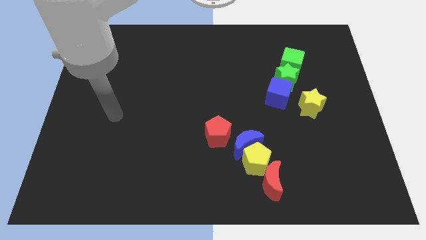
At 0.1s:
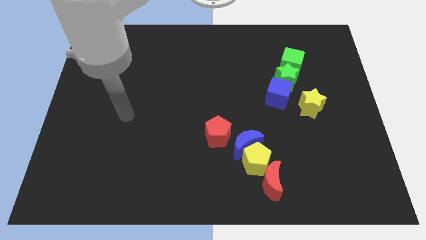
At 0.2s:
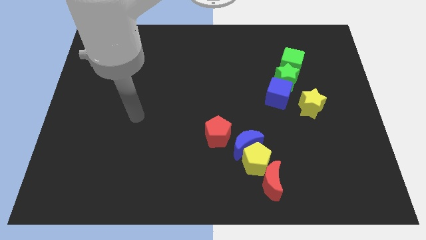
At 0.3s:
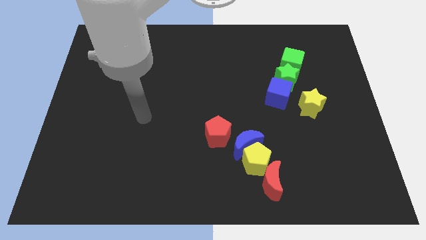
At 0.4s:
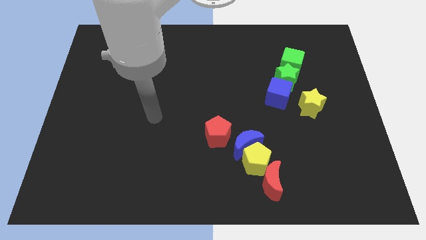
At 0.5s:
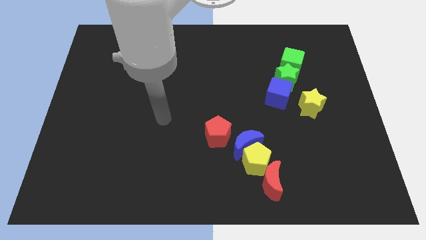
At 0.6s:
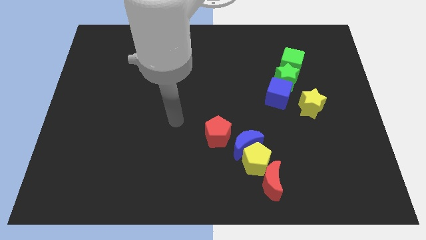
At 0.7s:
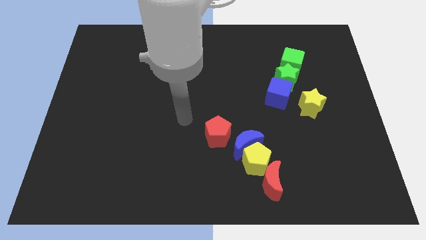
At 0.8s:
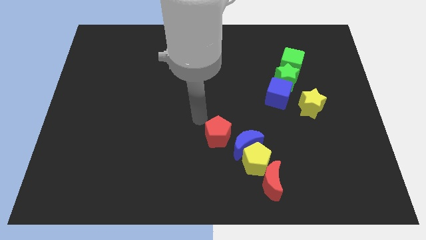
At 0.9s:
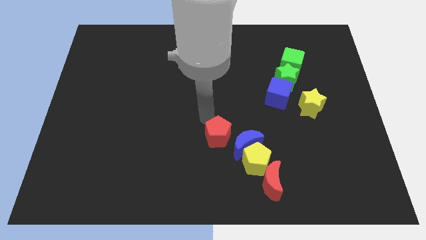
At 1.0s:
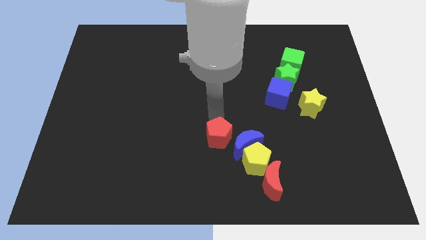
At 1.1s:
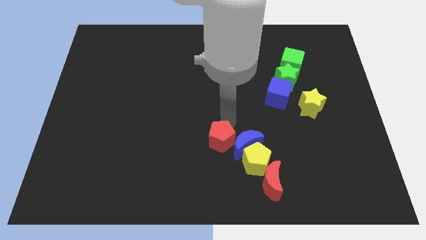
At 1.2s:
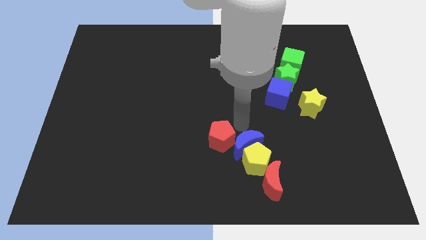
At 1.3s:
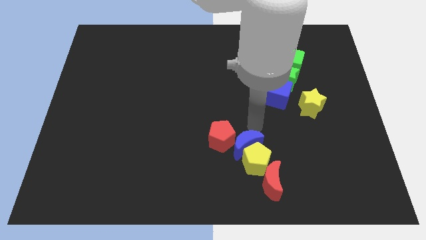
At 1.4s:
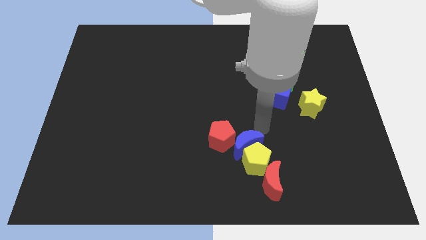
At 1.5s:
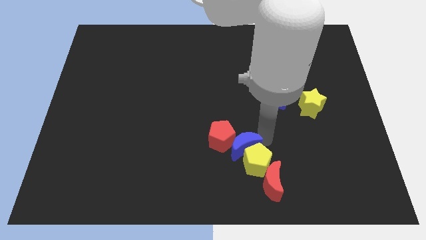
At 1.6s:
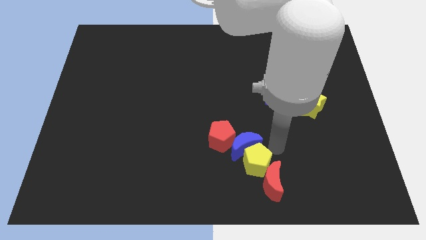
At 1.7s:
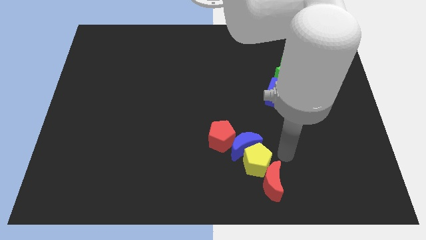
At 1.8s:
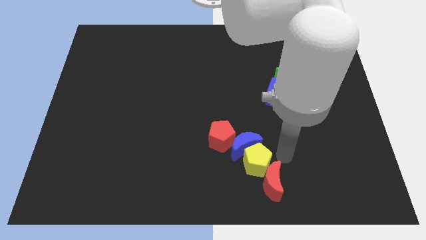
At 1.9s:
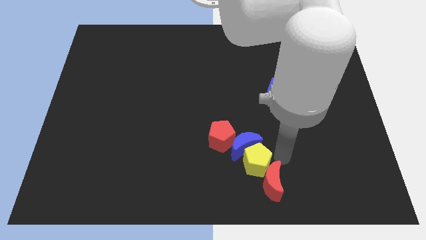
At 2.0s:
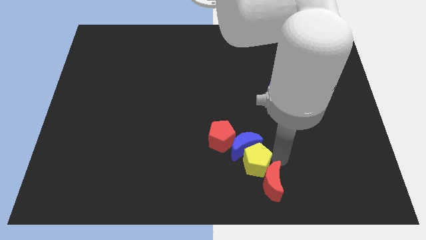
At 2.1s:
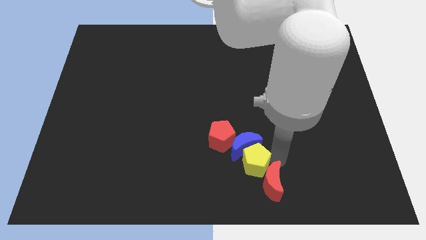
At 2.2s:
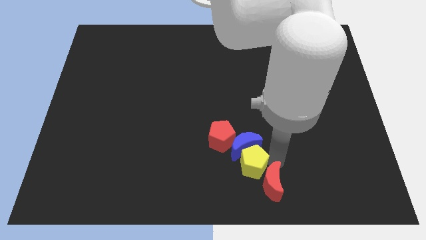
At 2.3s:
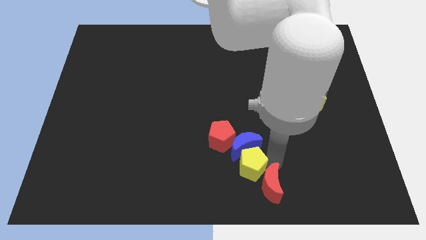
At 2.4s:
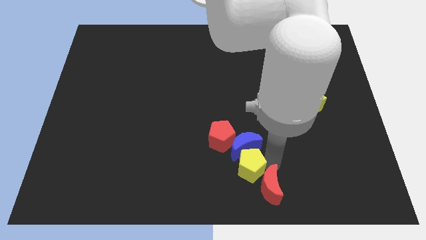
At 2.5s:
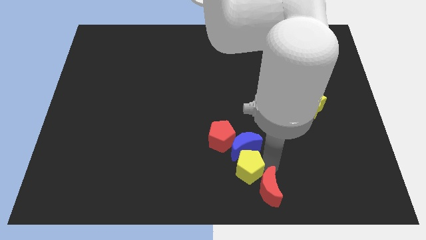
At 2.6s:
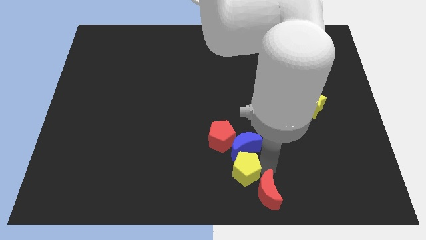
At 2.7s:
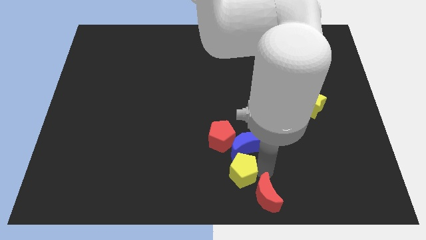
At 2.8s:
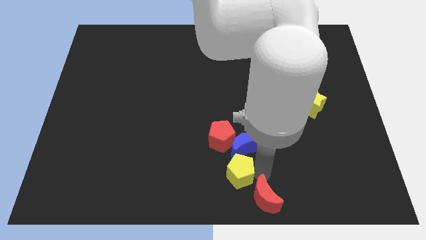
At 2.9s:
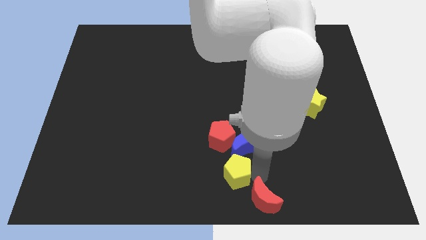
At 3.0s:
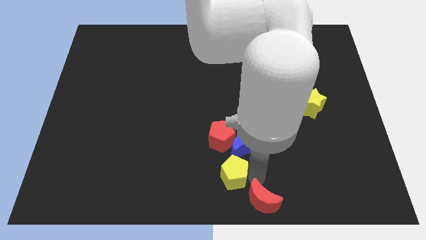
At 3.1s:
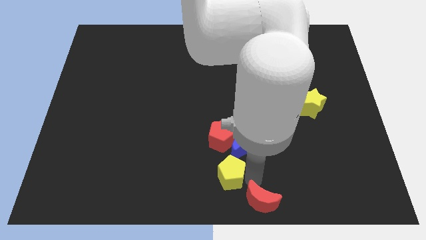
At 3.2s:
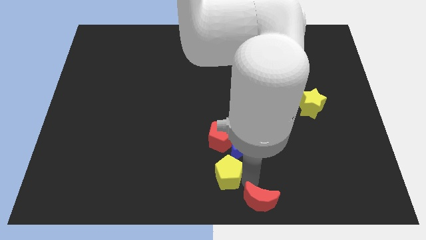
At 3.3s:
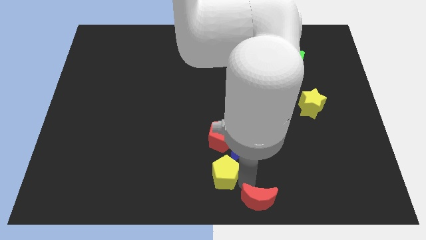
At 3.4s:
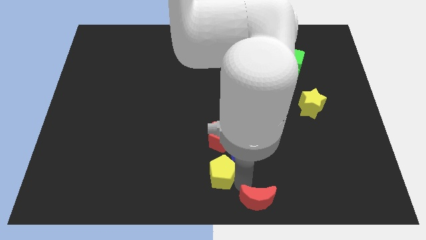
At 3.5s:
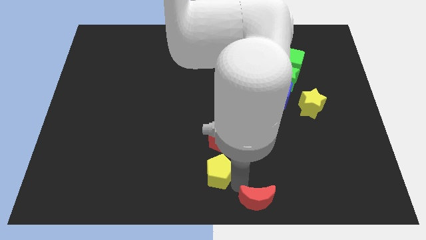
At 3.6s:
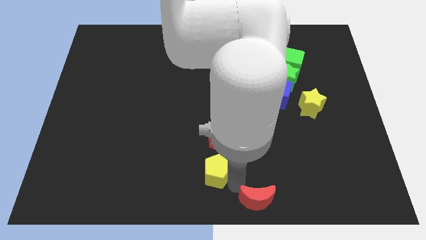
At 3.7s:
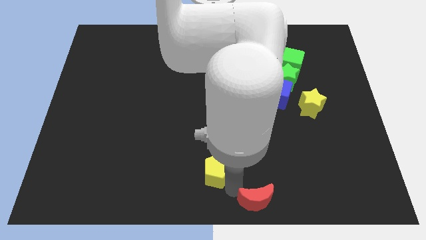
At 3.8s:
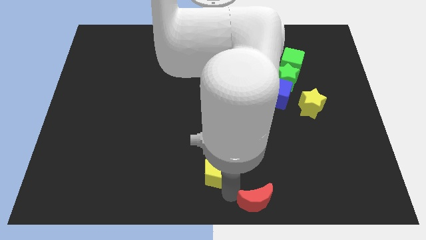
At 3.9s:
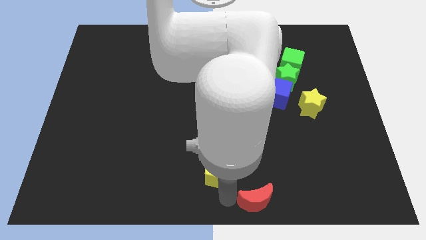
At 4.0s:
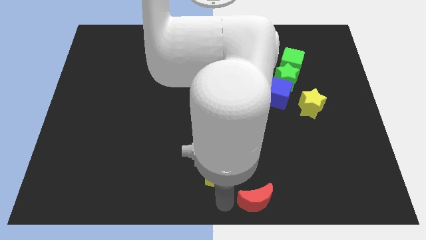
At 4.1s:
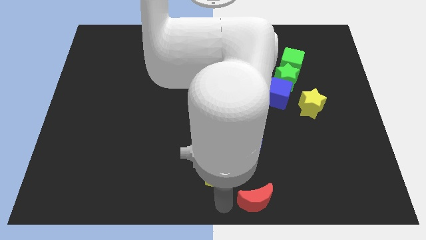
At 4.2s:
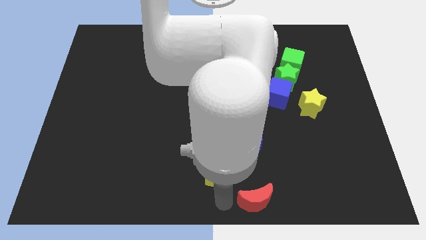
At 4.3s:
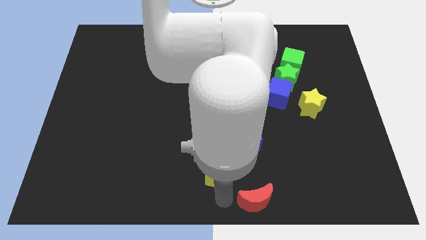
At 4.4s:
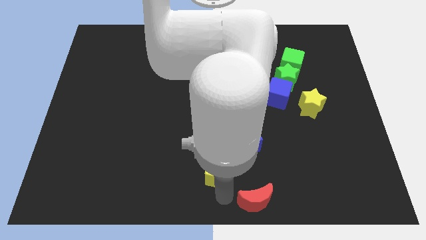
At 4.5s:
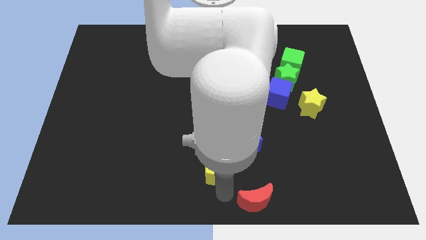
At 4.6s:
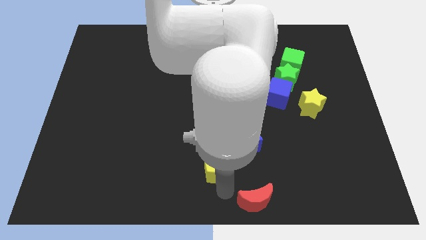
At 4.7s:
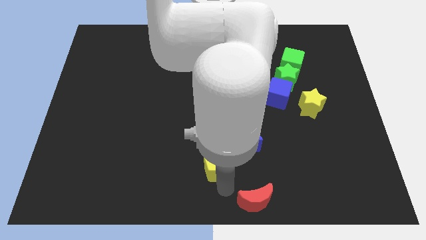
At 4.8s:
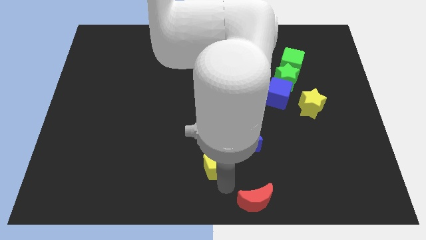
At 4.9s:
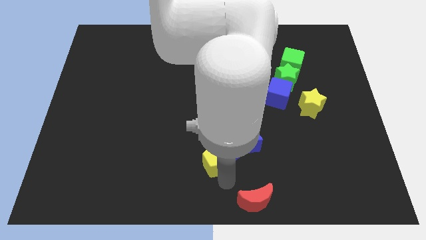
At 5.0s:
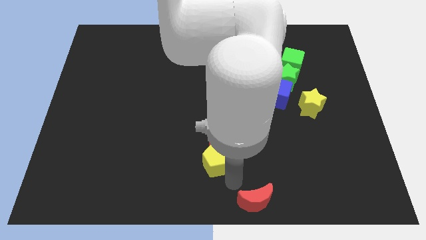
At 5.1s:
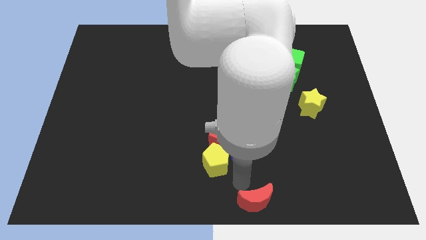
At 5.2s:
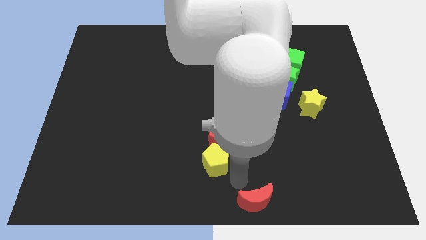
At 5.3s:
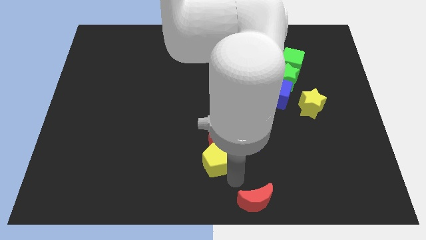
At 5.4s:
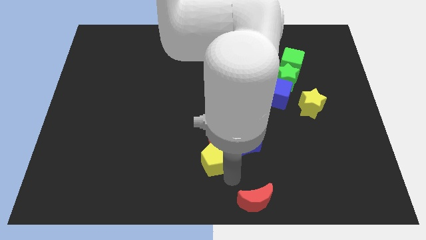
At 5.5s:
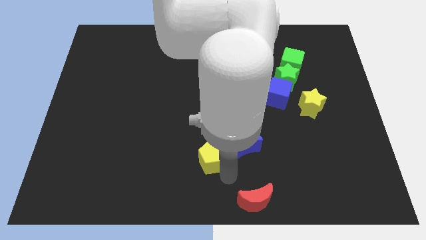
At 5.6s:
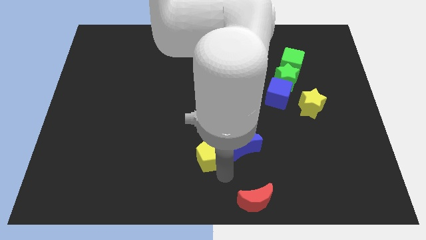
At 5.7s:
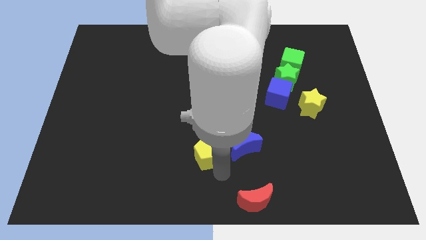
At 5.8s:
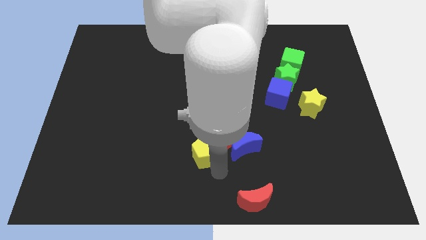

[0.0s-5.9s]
move the yellow pentagon away from the blue moon and red moon

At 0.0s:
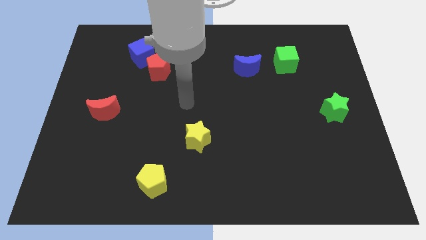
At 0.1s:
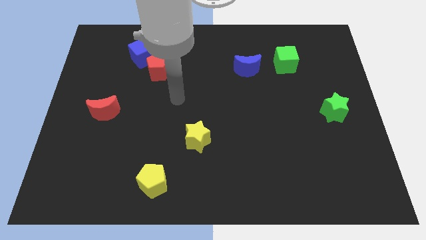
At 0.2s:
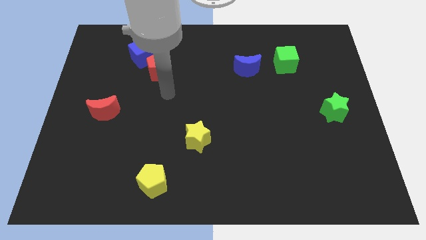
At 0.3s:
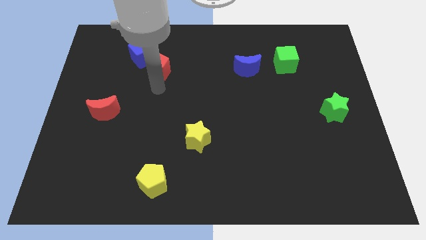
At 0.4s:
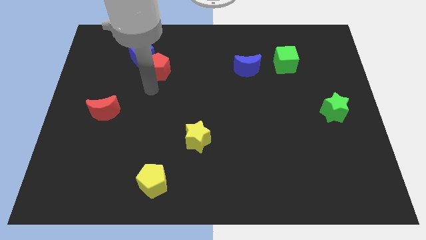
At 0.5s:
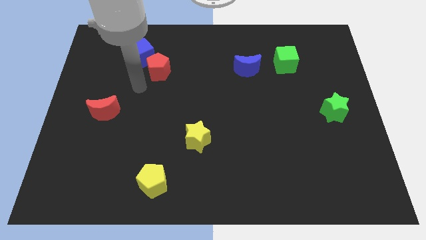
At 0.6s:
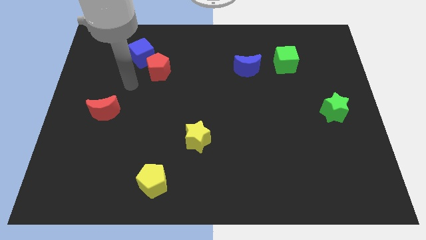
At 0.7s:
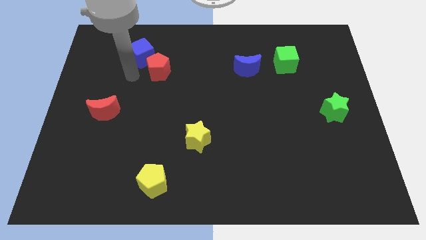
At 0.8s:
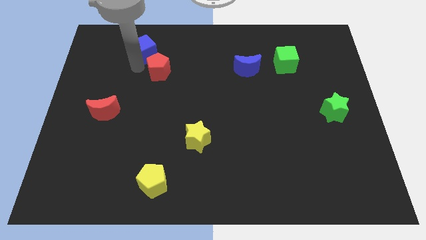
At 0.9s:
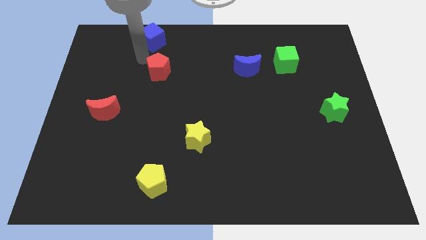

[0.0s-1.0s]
pull the red pentagon apart from the blue cube

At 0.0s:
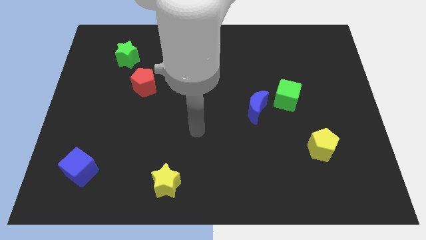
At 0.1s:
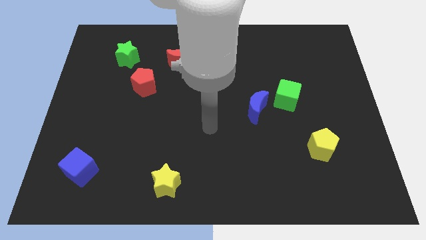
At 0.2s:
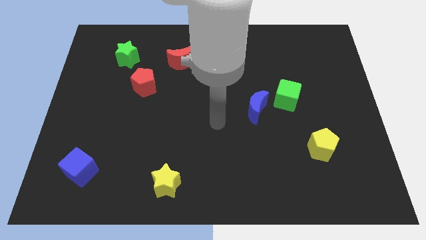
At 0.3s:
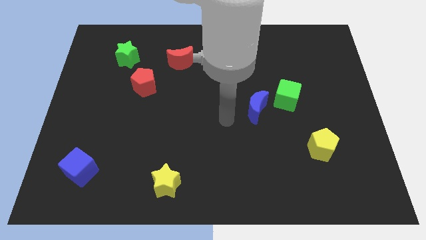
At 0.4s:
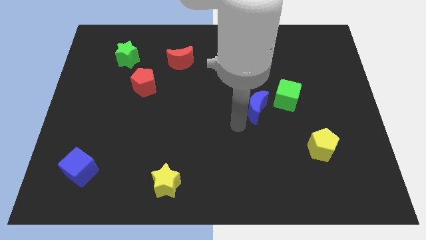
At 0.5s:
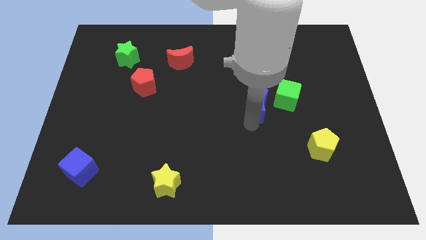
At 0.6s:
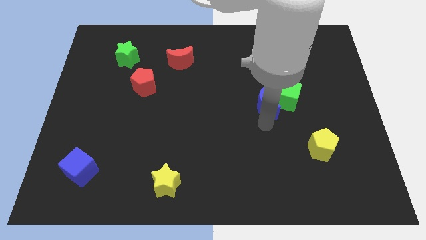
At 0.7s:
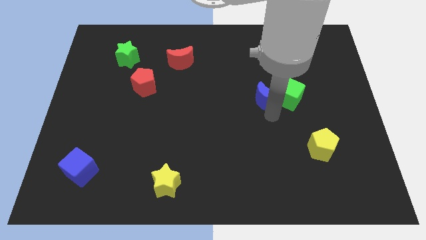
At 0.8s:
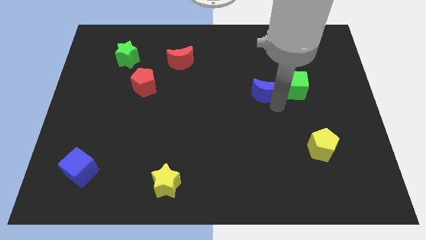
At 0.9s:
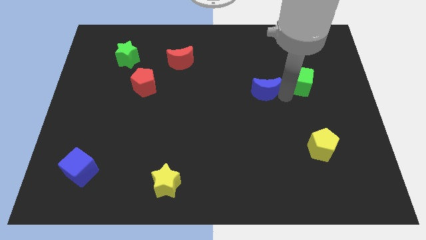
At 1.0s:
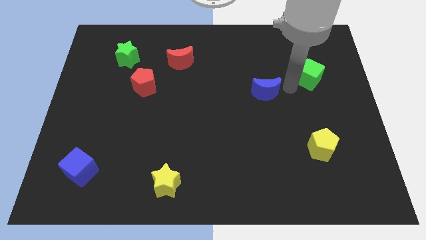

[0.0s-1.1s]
move the blue moon away from the green cube

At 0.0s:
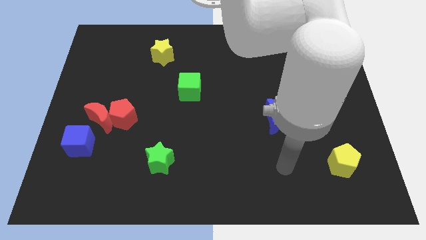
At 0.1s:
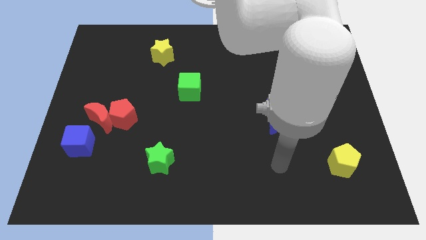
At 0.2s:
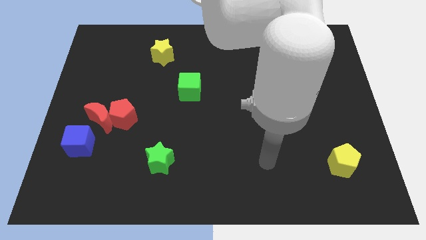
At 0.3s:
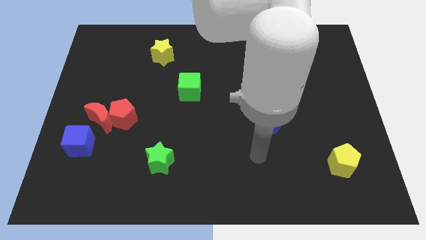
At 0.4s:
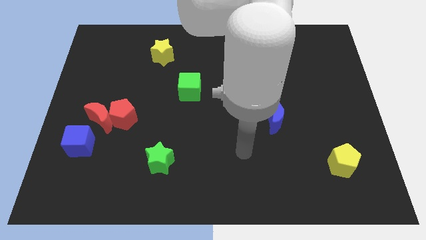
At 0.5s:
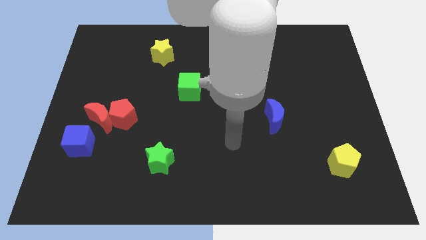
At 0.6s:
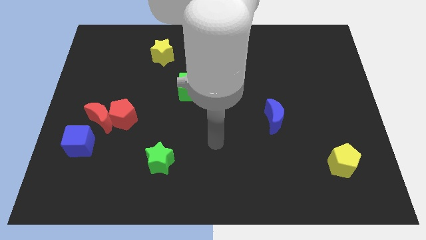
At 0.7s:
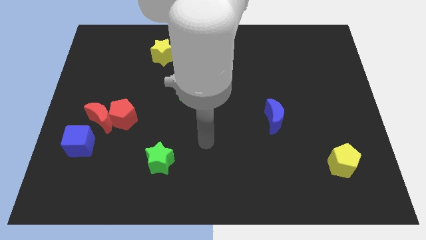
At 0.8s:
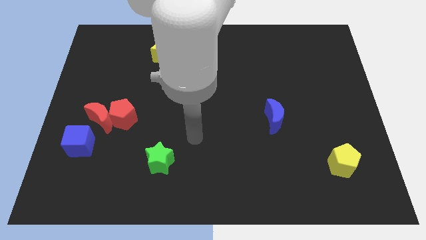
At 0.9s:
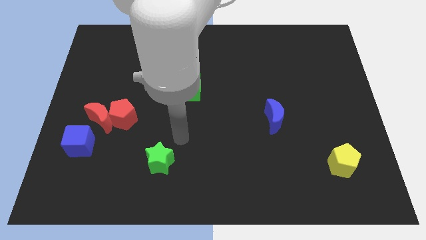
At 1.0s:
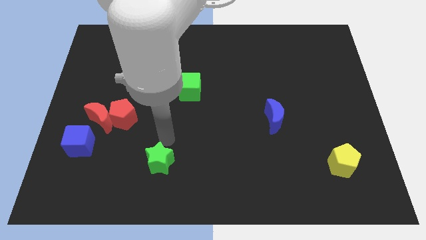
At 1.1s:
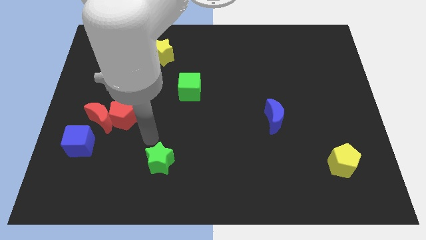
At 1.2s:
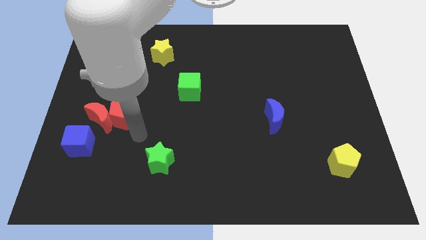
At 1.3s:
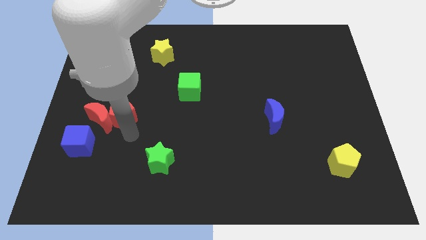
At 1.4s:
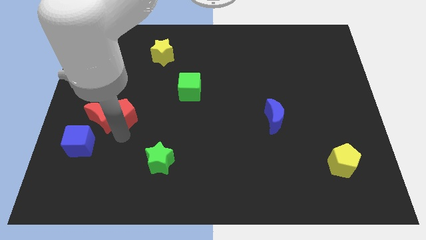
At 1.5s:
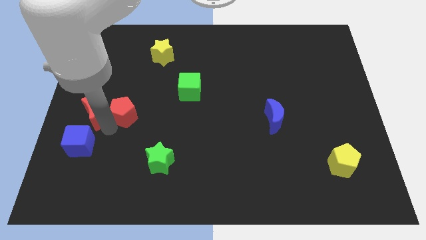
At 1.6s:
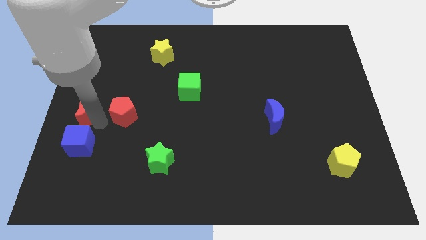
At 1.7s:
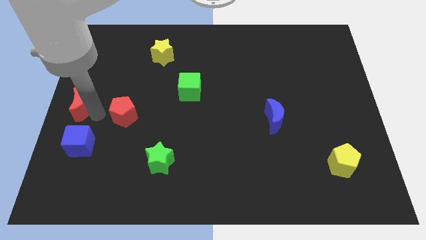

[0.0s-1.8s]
separate the red pentagon from the red moon
